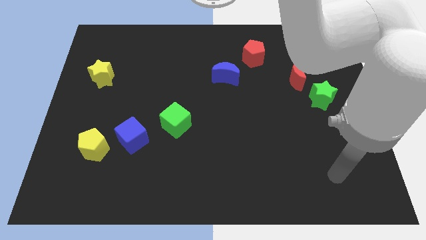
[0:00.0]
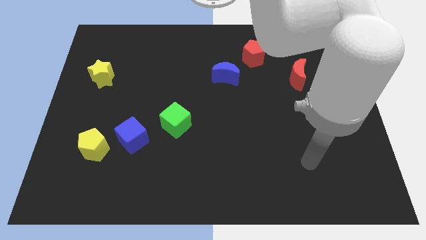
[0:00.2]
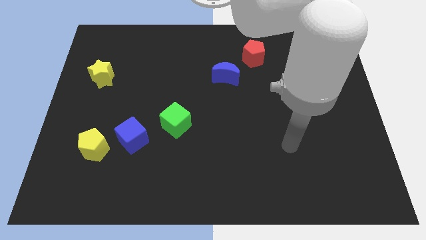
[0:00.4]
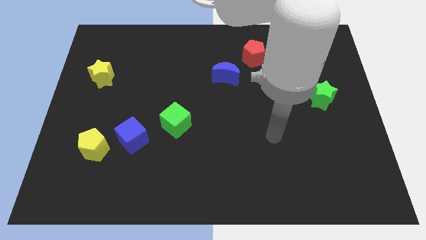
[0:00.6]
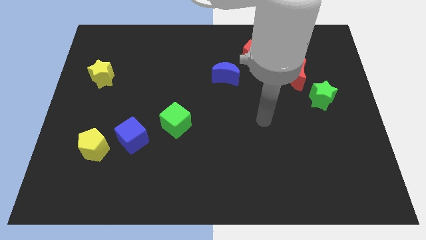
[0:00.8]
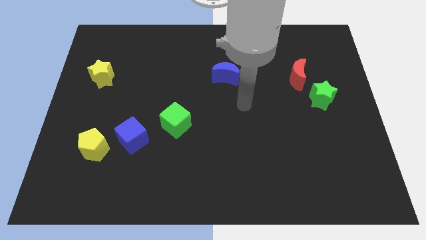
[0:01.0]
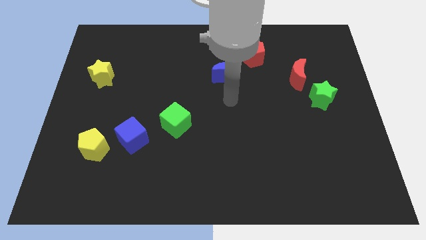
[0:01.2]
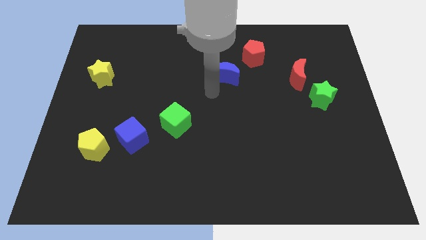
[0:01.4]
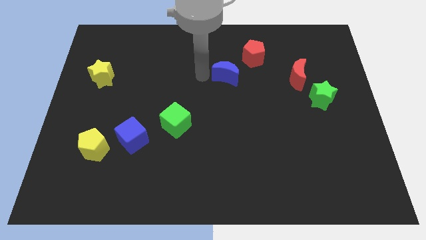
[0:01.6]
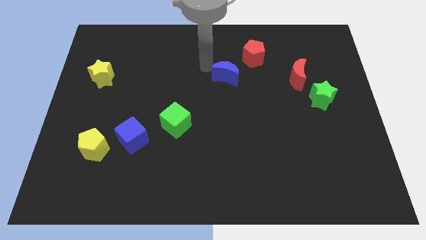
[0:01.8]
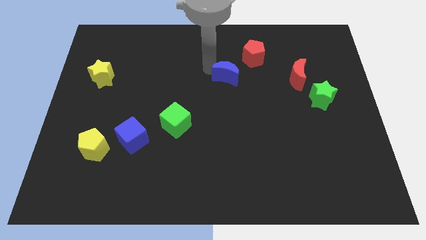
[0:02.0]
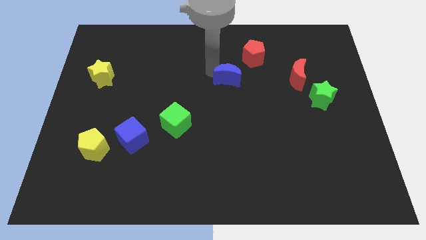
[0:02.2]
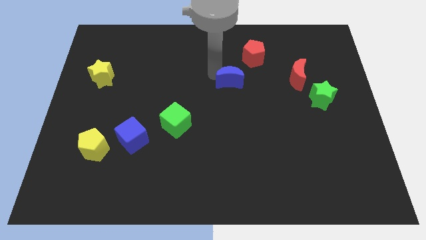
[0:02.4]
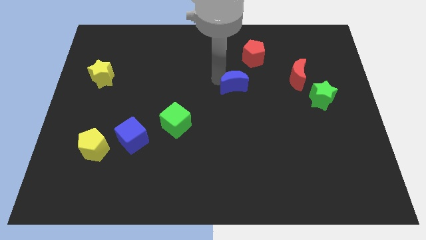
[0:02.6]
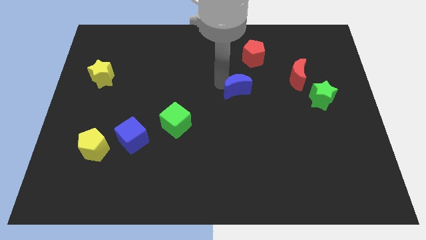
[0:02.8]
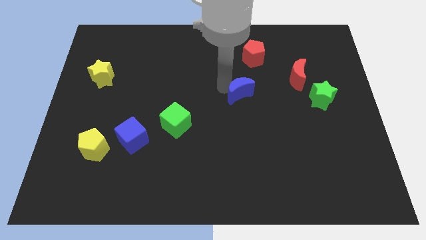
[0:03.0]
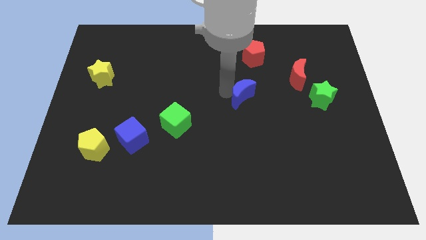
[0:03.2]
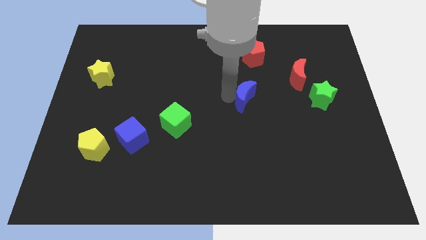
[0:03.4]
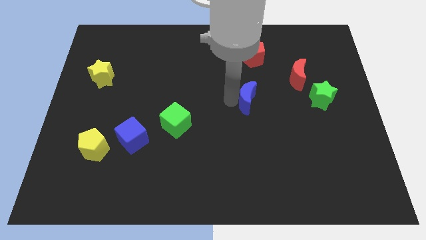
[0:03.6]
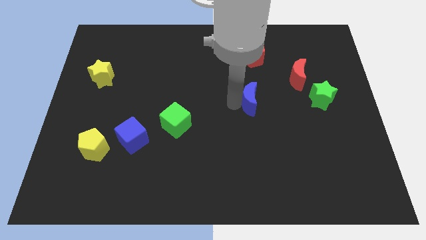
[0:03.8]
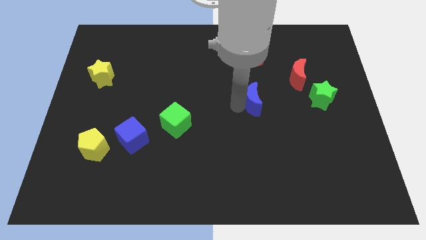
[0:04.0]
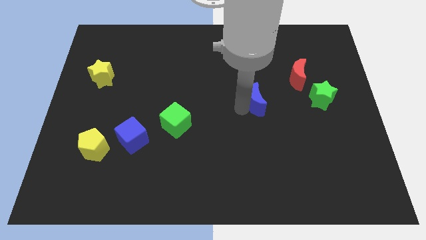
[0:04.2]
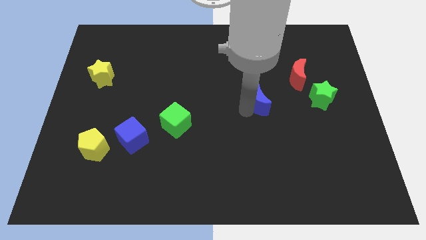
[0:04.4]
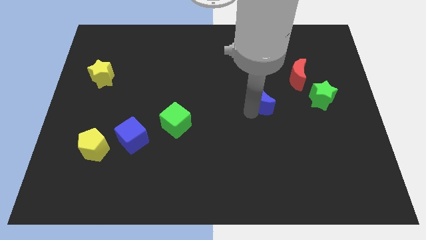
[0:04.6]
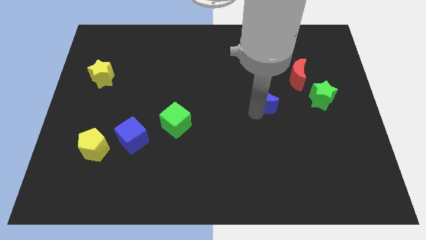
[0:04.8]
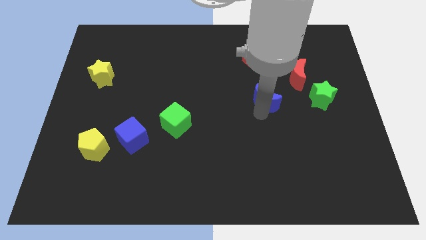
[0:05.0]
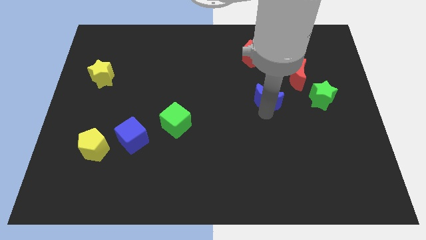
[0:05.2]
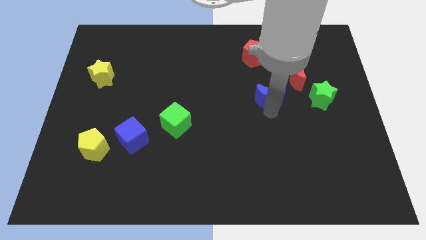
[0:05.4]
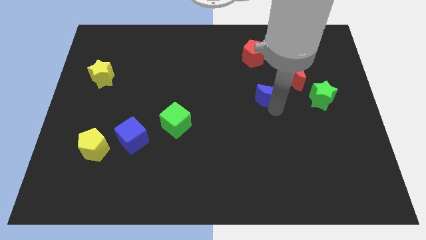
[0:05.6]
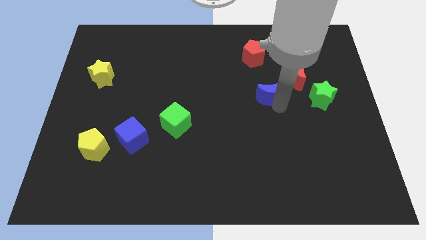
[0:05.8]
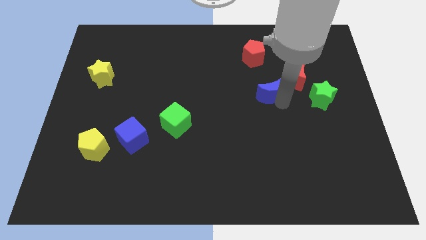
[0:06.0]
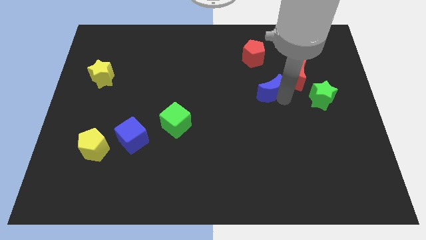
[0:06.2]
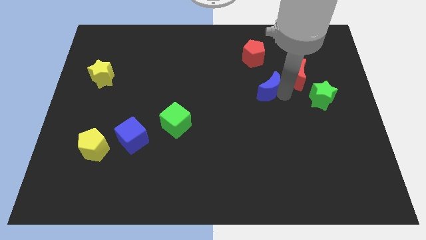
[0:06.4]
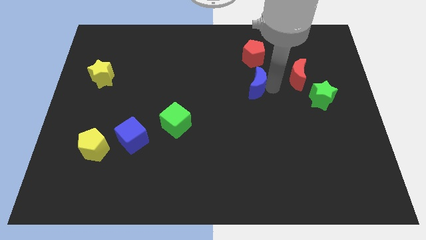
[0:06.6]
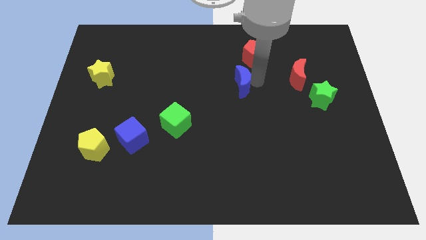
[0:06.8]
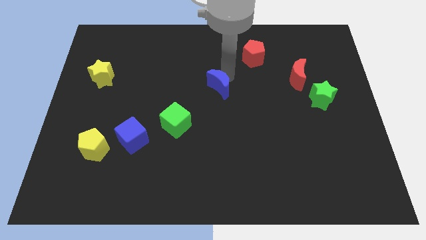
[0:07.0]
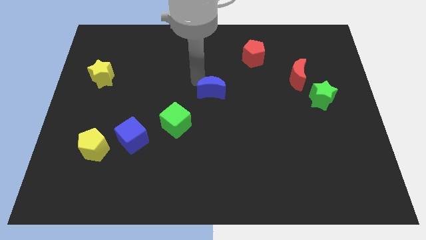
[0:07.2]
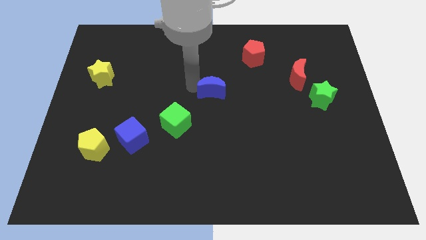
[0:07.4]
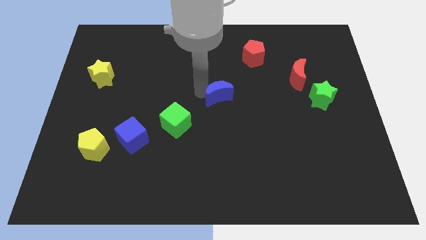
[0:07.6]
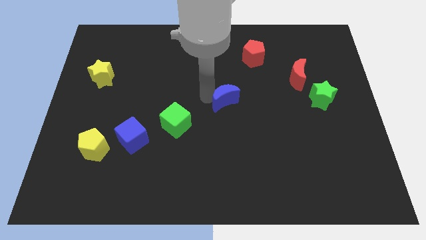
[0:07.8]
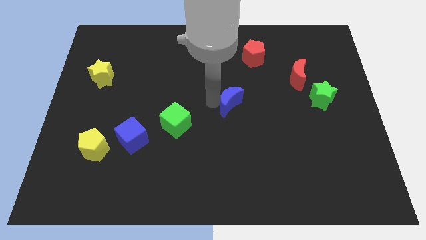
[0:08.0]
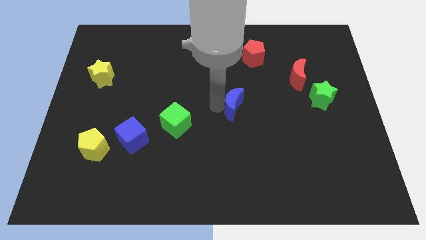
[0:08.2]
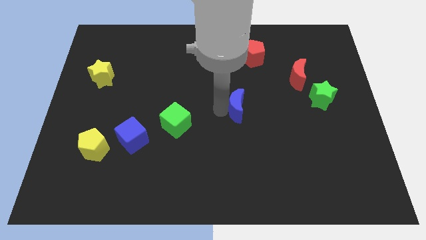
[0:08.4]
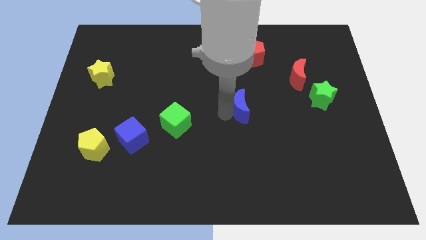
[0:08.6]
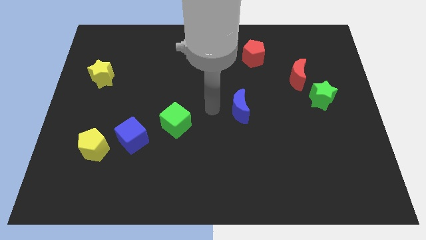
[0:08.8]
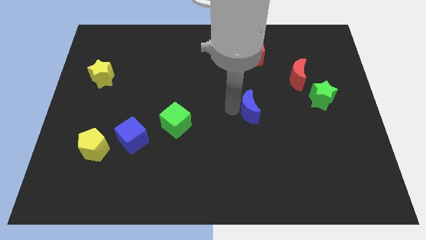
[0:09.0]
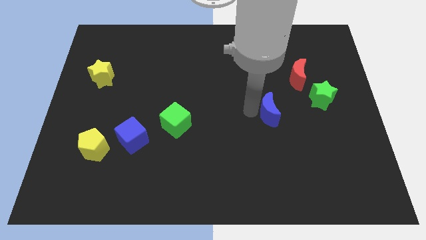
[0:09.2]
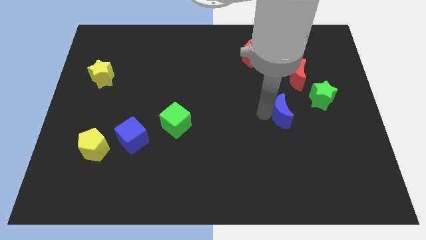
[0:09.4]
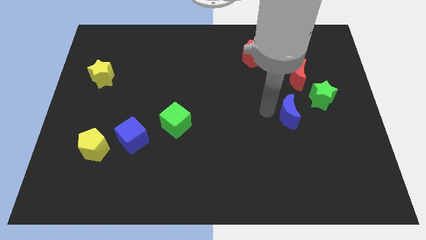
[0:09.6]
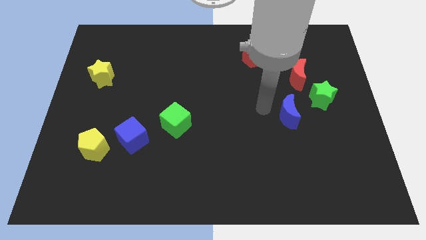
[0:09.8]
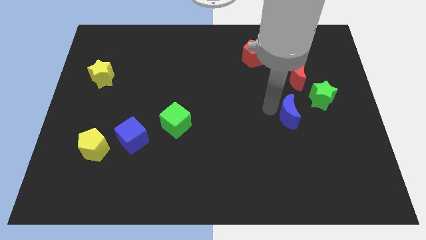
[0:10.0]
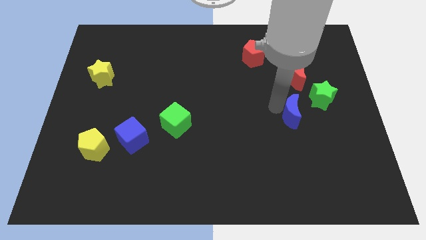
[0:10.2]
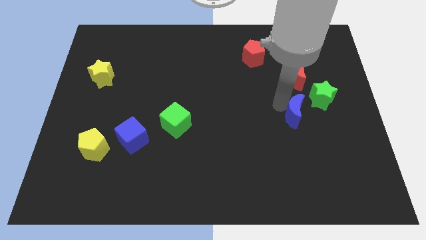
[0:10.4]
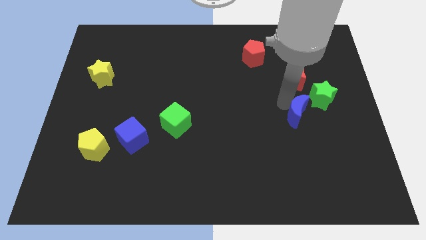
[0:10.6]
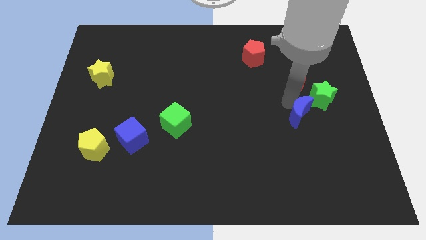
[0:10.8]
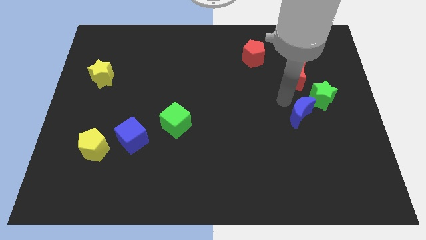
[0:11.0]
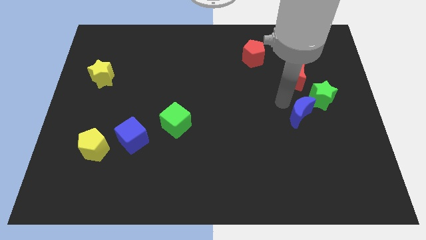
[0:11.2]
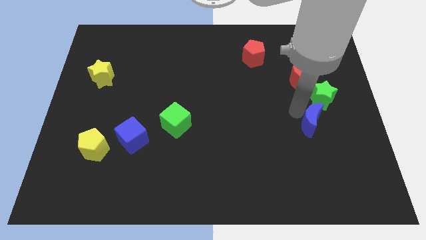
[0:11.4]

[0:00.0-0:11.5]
move the blue moon to the bottom side of the green star
